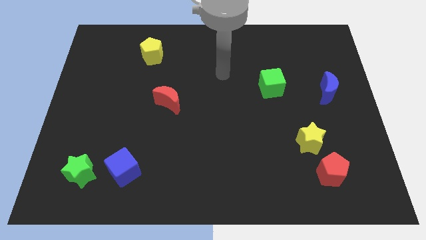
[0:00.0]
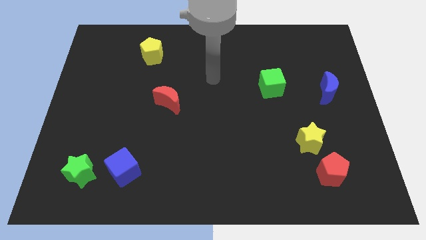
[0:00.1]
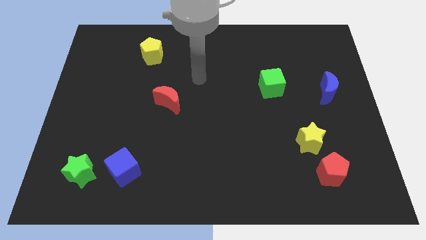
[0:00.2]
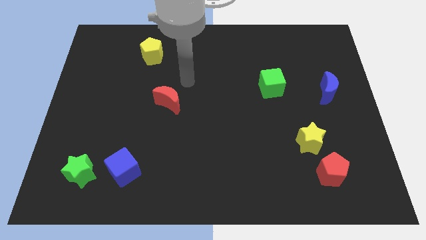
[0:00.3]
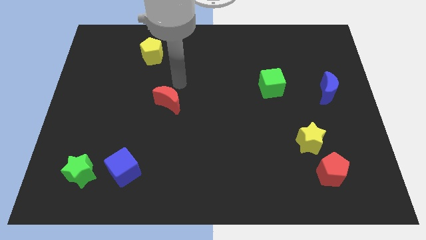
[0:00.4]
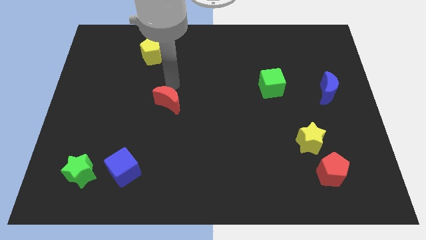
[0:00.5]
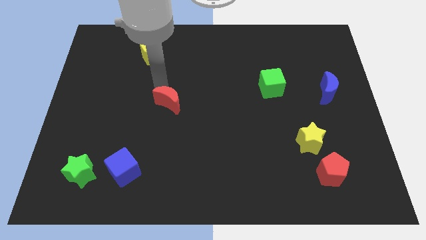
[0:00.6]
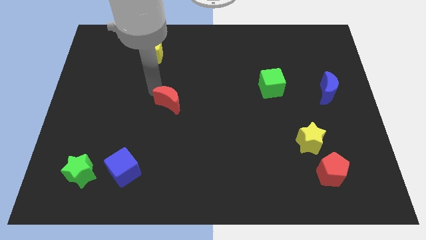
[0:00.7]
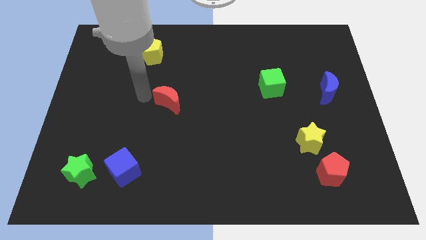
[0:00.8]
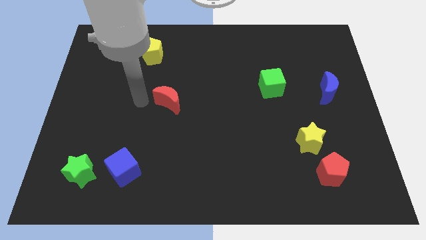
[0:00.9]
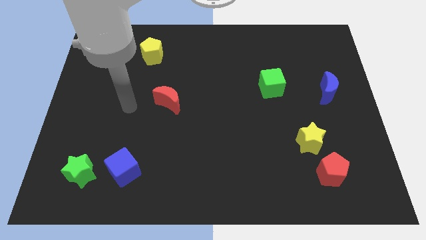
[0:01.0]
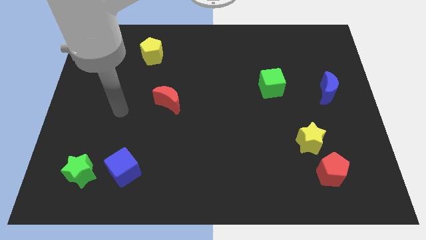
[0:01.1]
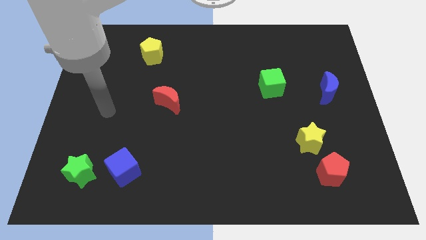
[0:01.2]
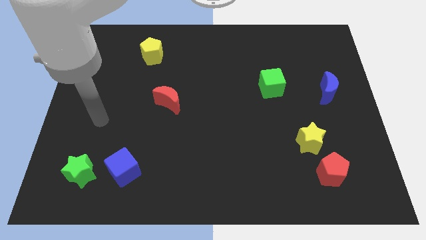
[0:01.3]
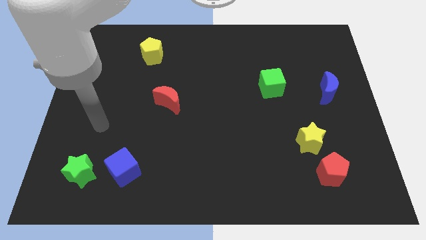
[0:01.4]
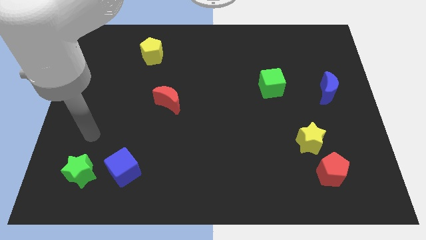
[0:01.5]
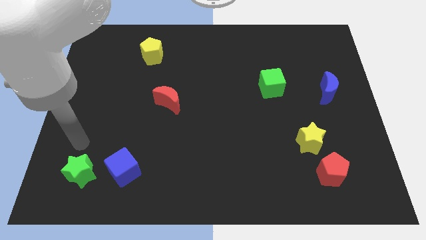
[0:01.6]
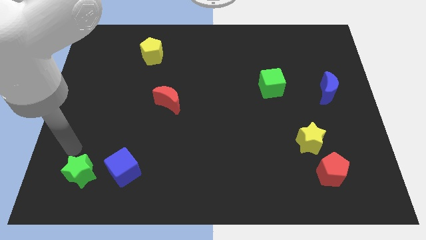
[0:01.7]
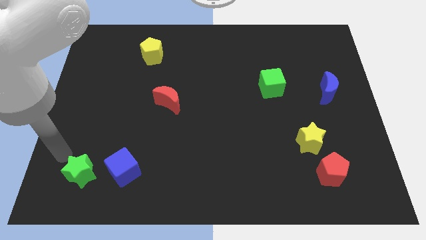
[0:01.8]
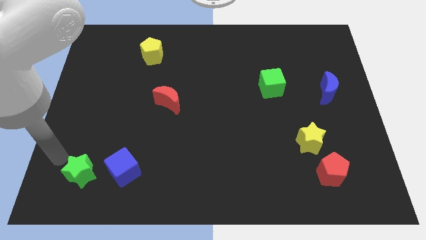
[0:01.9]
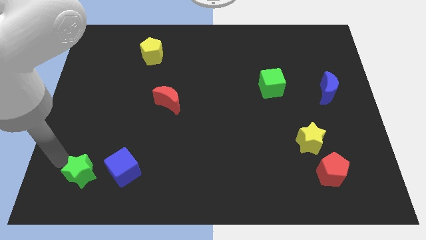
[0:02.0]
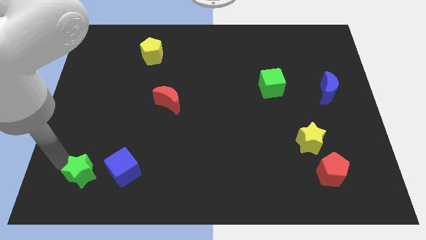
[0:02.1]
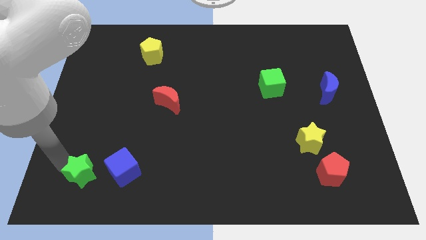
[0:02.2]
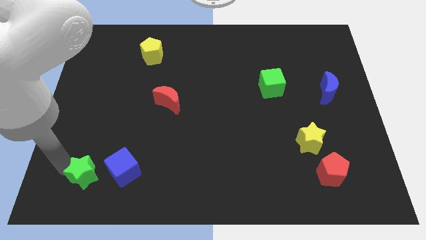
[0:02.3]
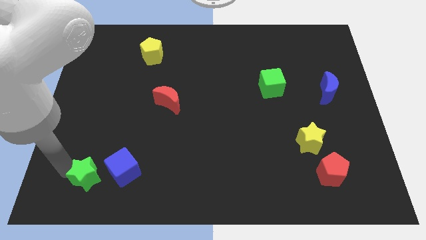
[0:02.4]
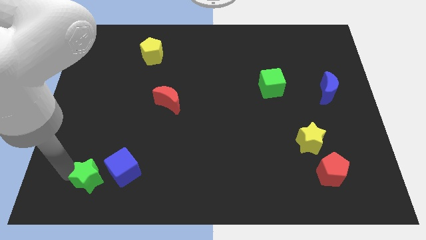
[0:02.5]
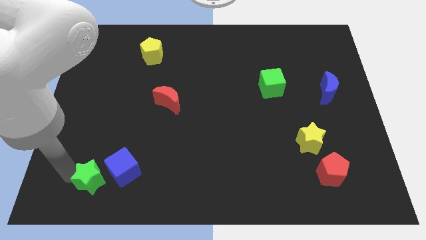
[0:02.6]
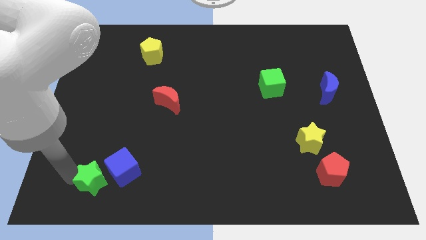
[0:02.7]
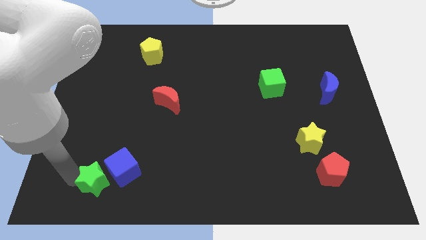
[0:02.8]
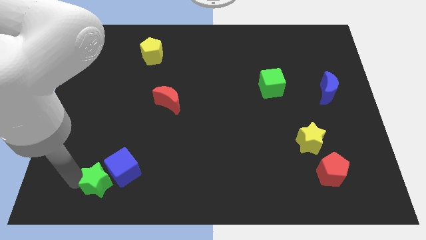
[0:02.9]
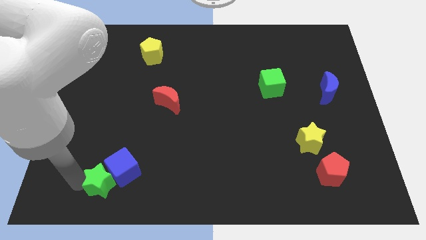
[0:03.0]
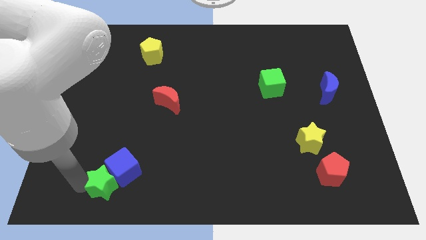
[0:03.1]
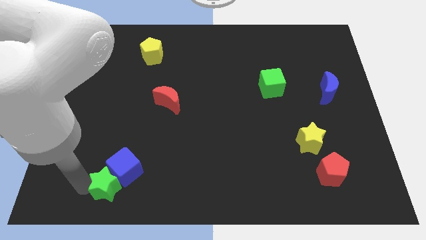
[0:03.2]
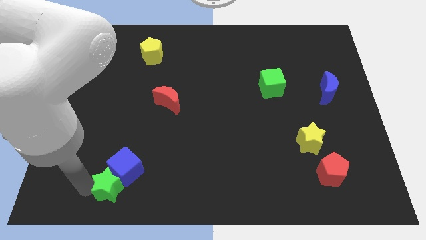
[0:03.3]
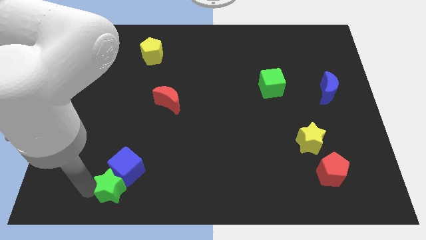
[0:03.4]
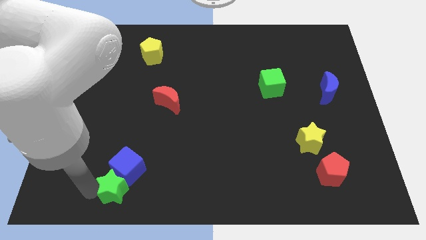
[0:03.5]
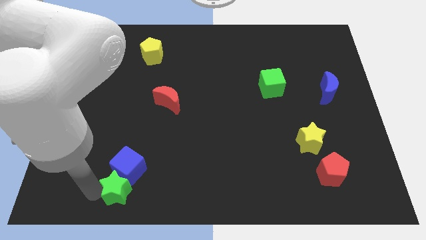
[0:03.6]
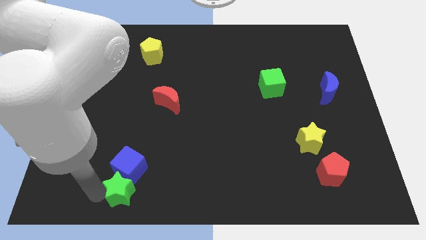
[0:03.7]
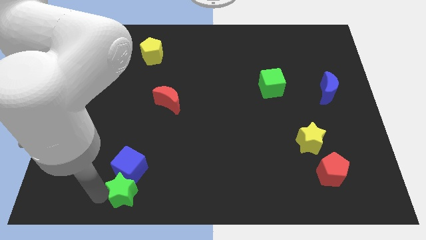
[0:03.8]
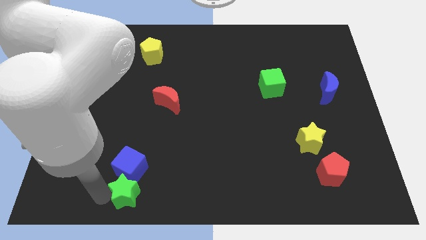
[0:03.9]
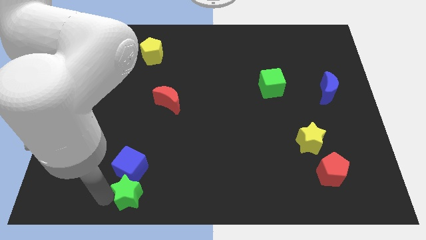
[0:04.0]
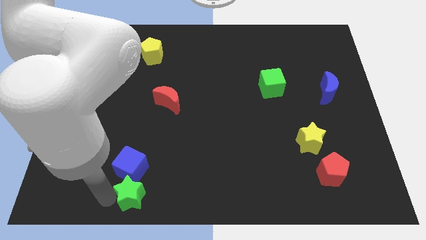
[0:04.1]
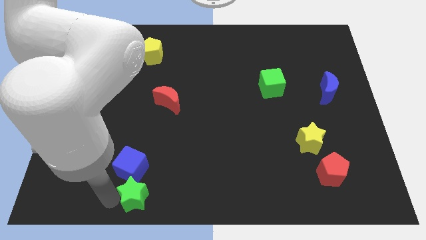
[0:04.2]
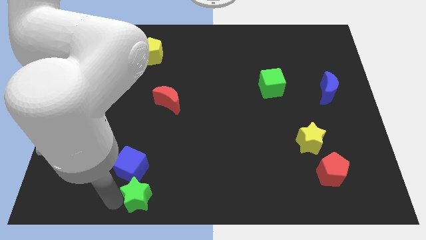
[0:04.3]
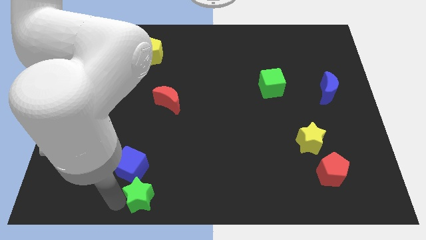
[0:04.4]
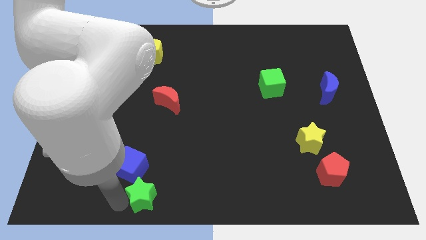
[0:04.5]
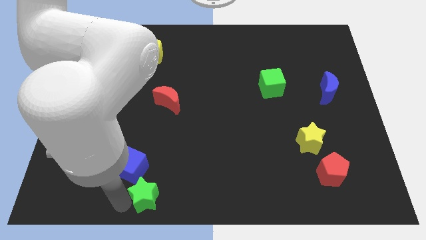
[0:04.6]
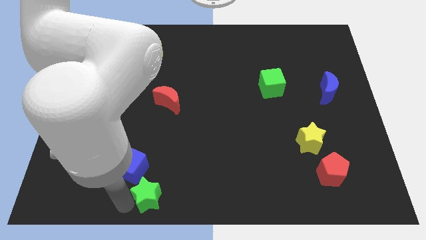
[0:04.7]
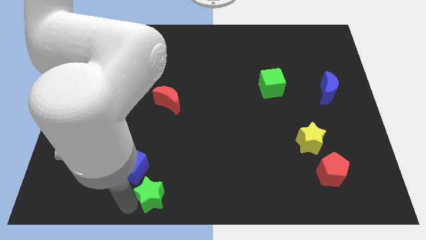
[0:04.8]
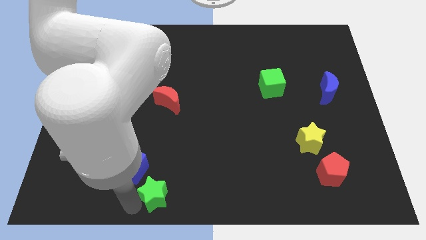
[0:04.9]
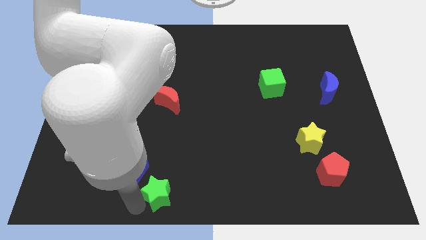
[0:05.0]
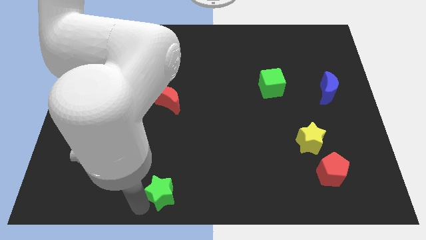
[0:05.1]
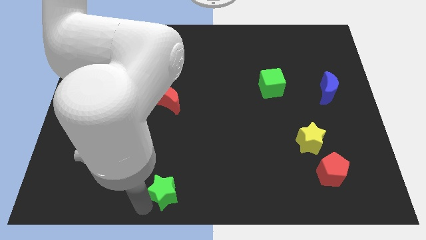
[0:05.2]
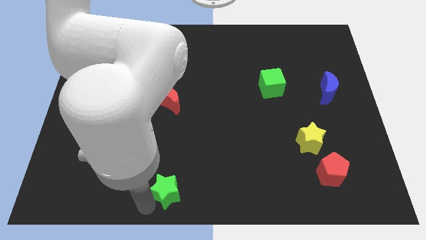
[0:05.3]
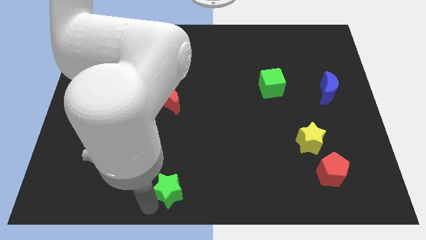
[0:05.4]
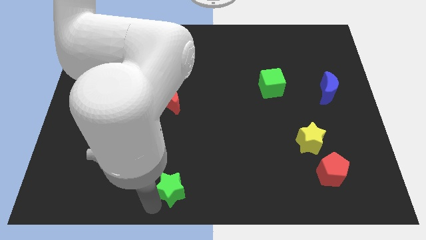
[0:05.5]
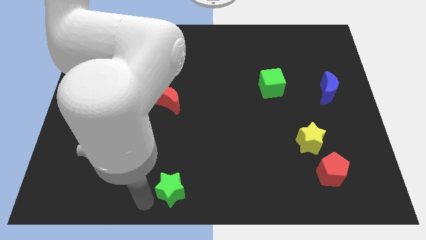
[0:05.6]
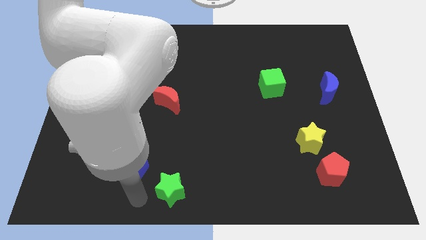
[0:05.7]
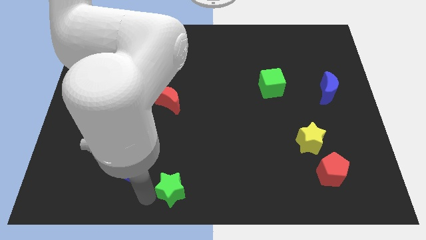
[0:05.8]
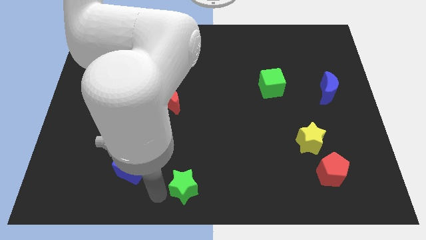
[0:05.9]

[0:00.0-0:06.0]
move the green star to the right

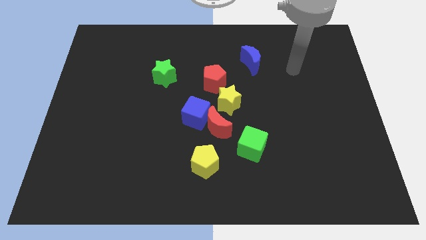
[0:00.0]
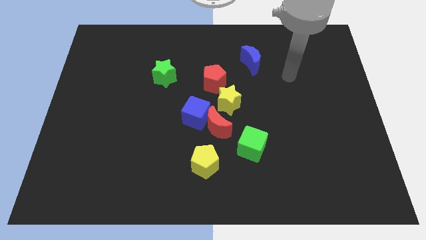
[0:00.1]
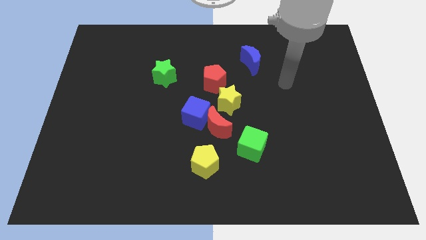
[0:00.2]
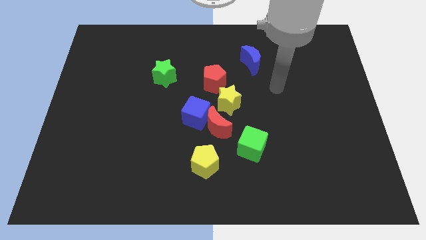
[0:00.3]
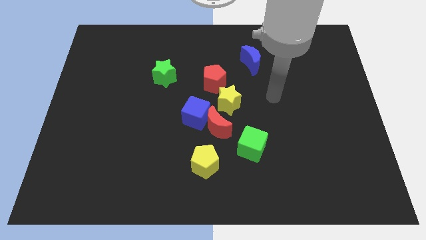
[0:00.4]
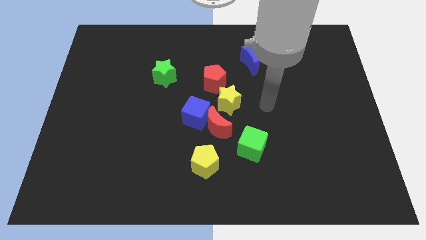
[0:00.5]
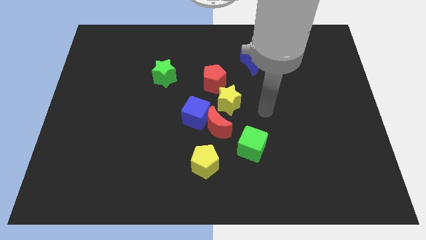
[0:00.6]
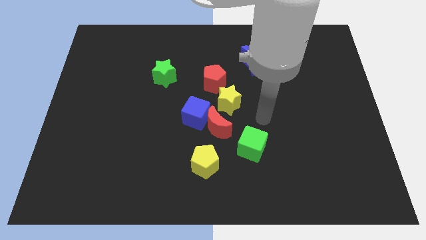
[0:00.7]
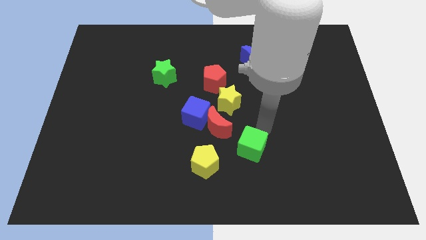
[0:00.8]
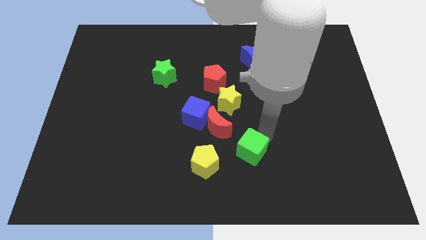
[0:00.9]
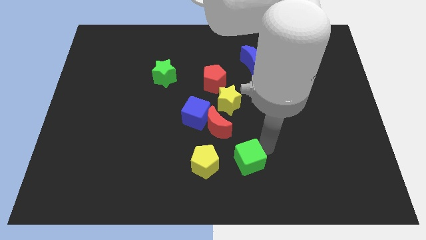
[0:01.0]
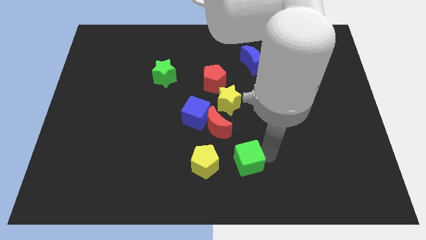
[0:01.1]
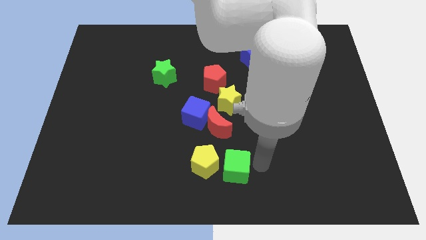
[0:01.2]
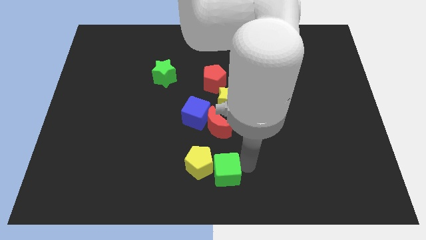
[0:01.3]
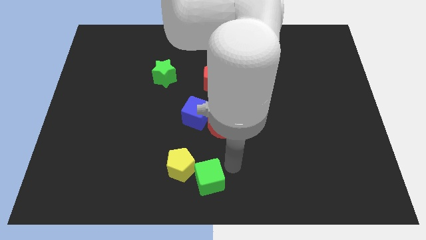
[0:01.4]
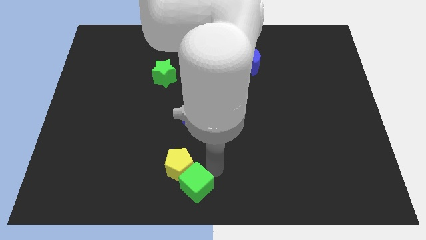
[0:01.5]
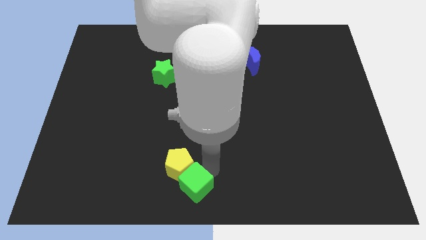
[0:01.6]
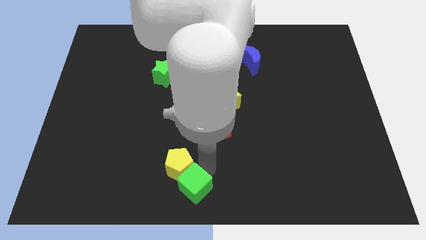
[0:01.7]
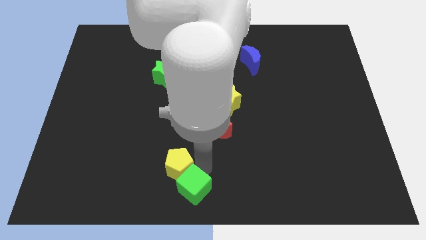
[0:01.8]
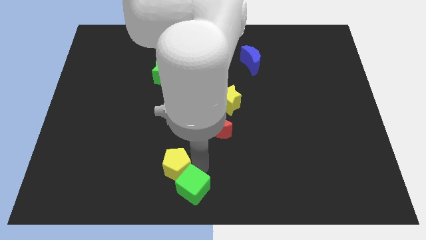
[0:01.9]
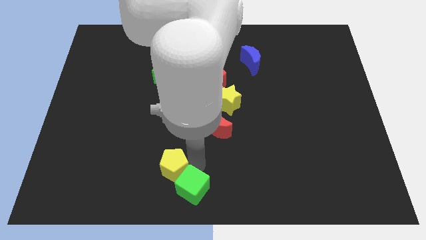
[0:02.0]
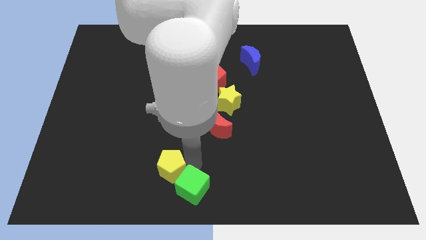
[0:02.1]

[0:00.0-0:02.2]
move the yellow pentagon somewhat left

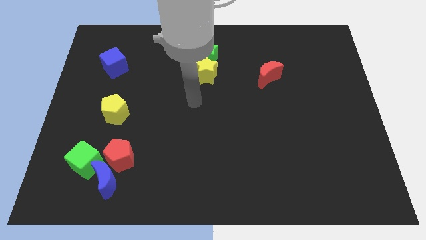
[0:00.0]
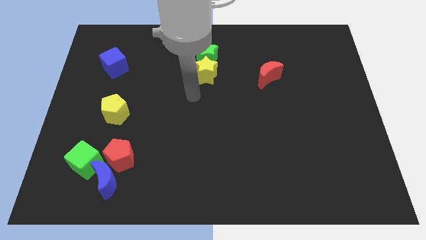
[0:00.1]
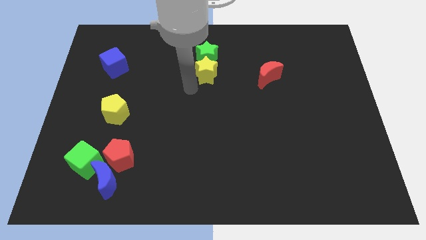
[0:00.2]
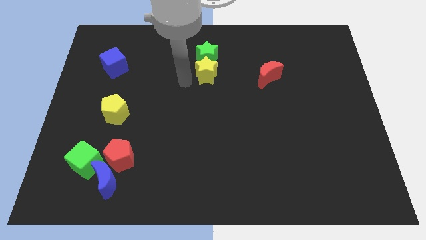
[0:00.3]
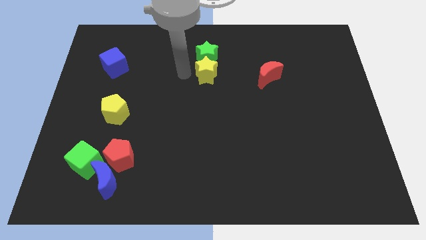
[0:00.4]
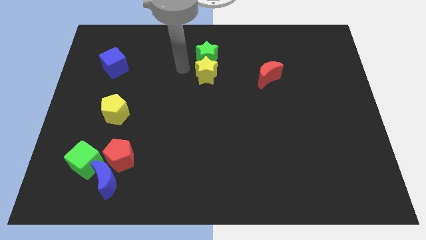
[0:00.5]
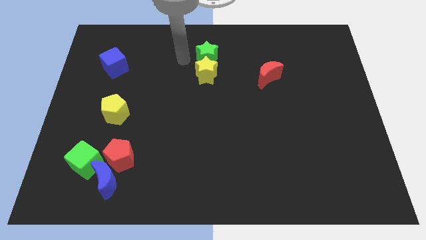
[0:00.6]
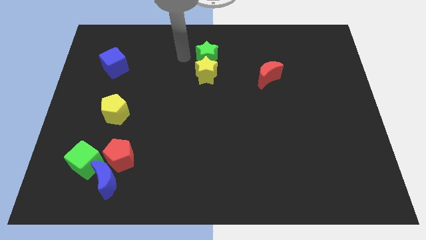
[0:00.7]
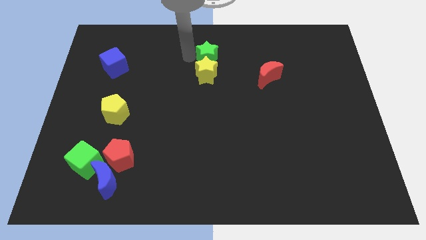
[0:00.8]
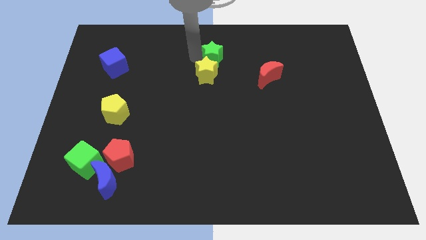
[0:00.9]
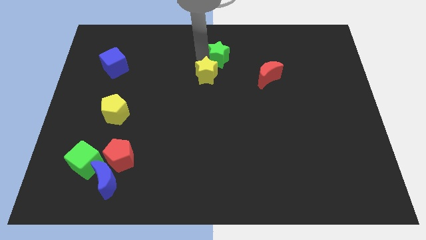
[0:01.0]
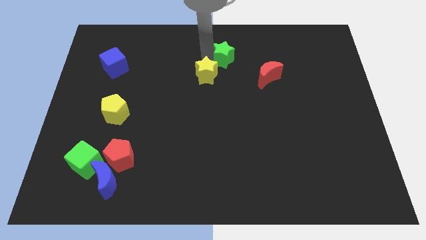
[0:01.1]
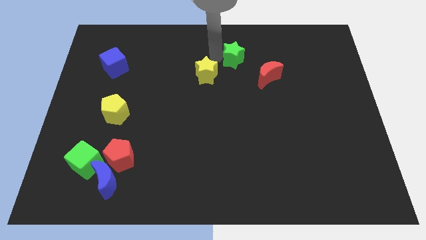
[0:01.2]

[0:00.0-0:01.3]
slightly push the green star to the right
